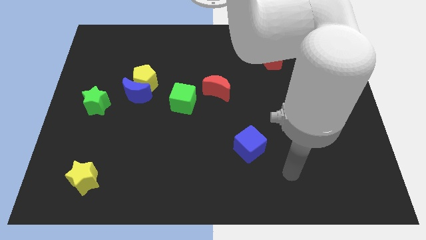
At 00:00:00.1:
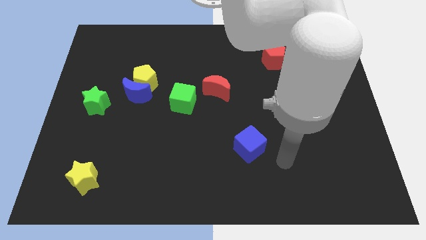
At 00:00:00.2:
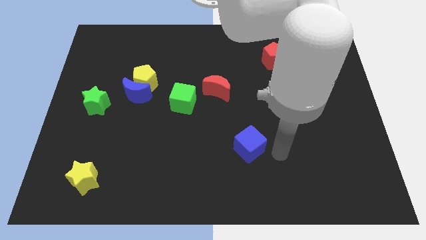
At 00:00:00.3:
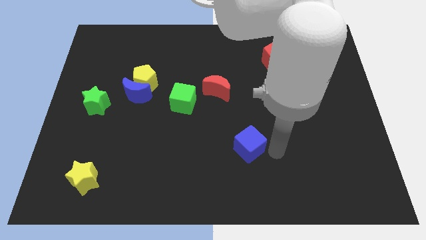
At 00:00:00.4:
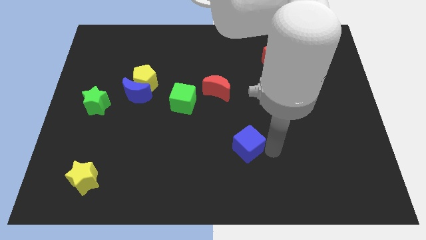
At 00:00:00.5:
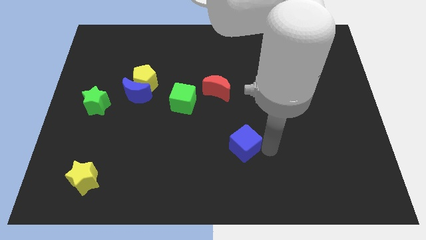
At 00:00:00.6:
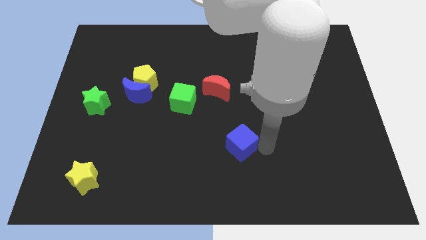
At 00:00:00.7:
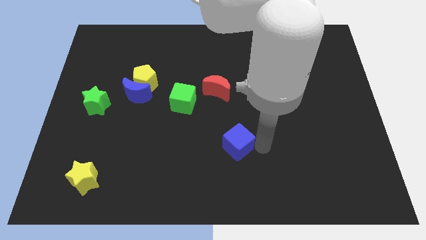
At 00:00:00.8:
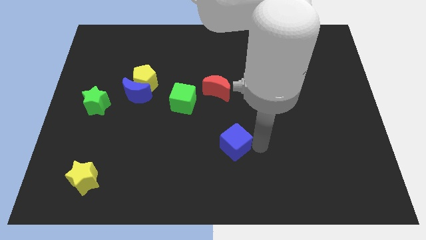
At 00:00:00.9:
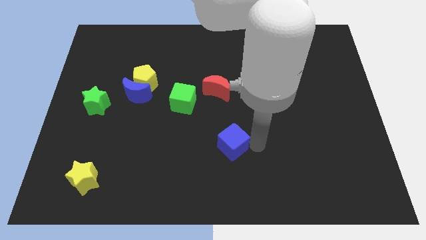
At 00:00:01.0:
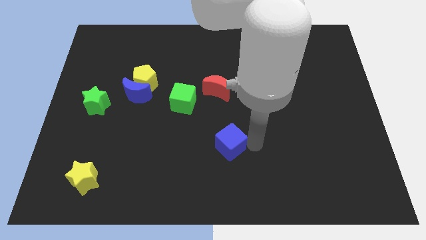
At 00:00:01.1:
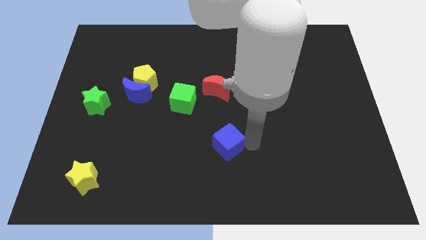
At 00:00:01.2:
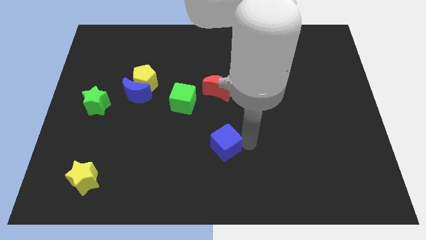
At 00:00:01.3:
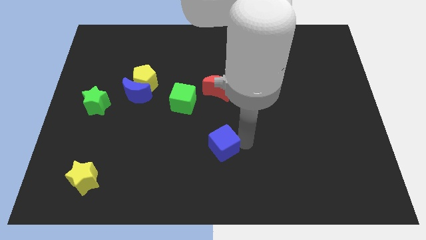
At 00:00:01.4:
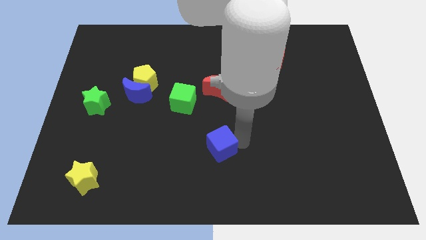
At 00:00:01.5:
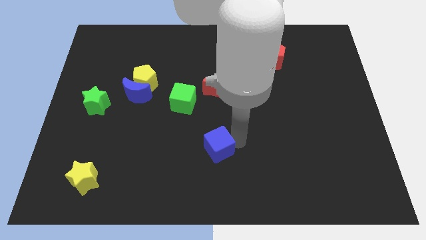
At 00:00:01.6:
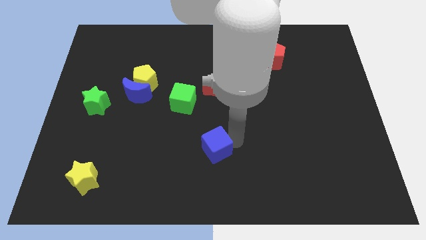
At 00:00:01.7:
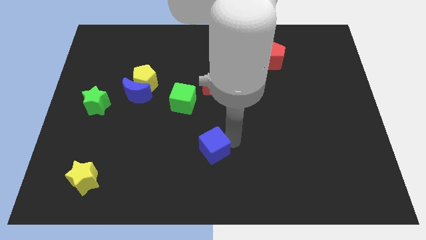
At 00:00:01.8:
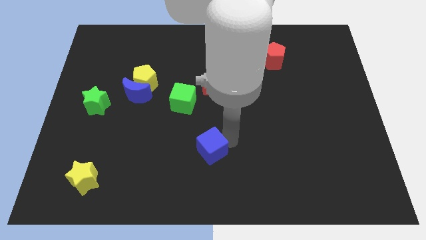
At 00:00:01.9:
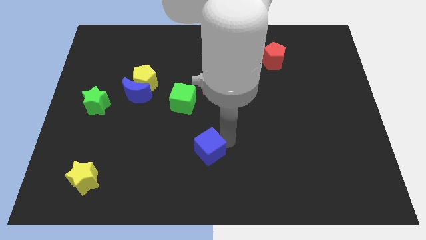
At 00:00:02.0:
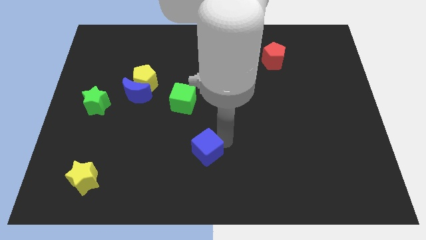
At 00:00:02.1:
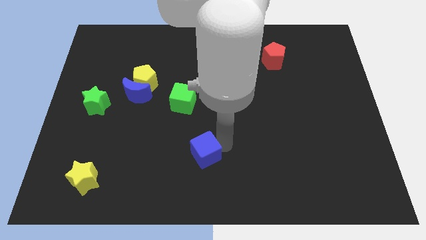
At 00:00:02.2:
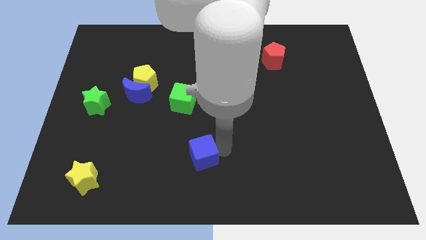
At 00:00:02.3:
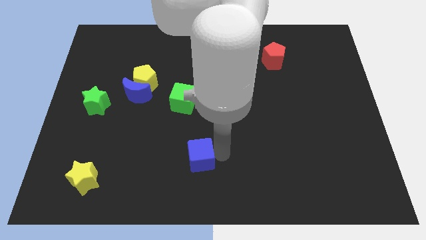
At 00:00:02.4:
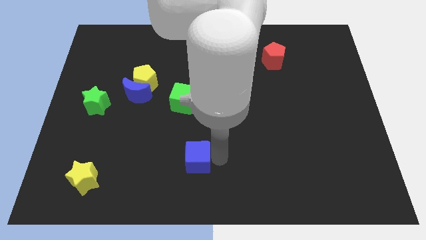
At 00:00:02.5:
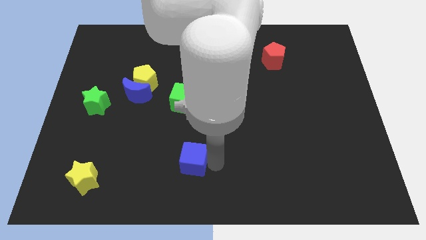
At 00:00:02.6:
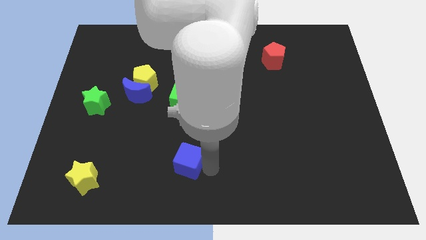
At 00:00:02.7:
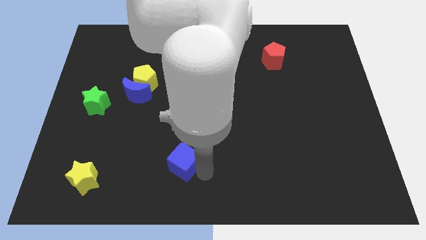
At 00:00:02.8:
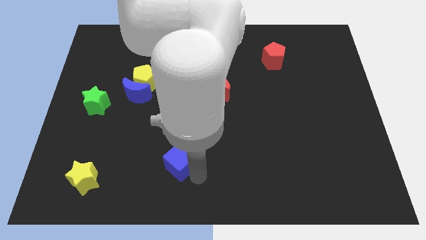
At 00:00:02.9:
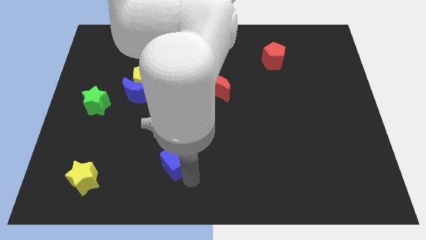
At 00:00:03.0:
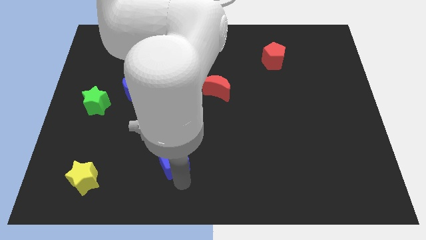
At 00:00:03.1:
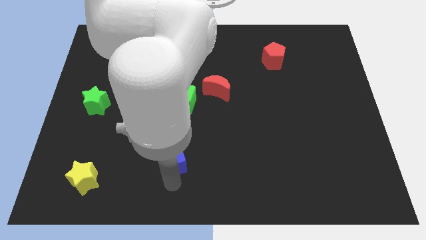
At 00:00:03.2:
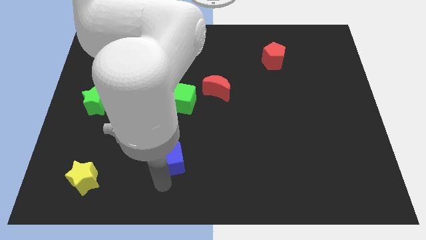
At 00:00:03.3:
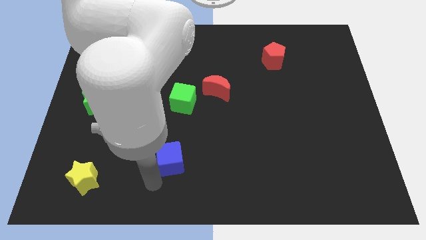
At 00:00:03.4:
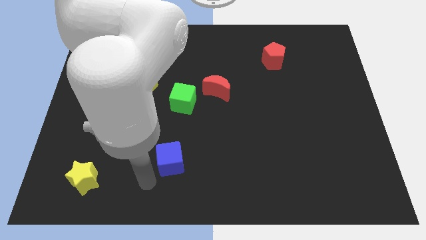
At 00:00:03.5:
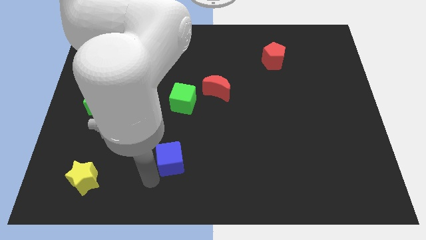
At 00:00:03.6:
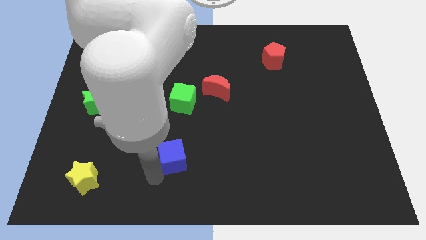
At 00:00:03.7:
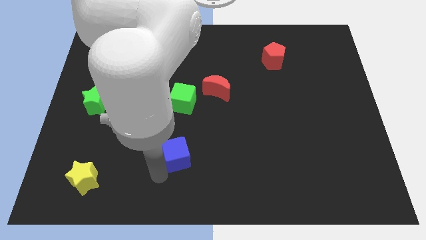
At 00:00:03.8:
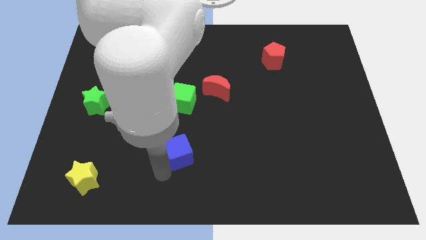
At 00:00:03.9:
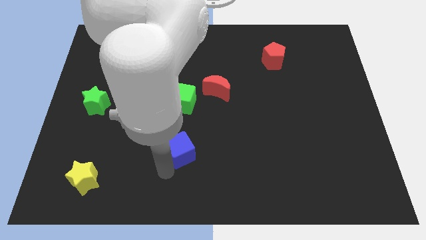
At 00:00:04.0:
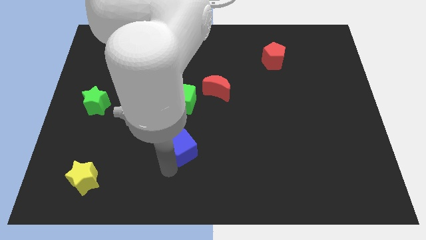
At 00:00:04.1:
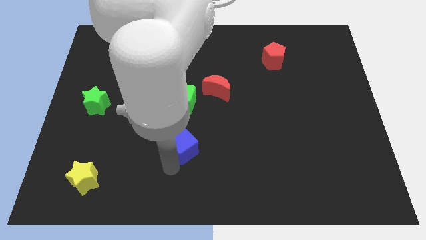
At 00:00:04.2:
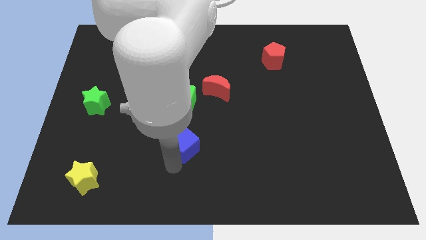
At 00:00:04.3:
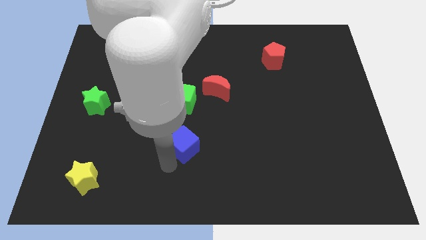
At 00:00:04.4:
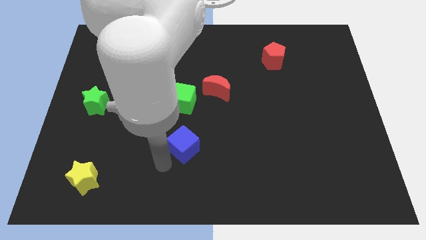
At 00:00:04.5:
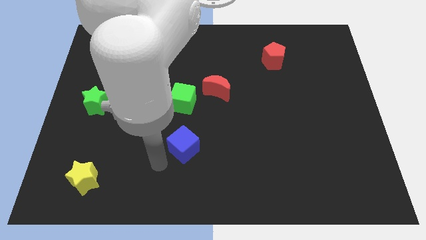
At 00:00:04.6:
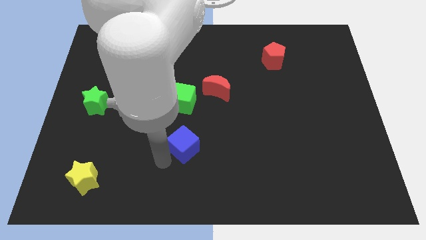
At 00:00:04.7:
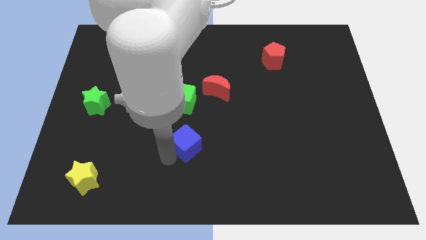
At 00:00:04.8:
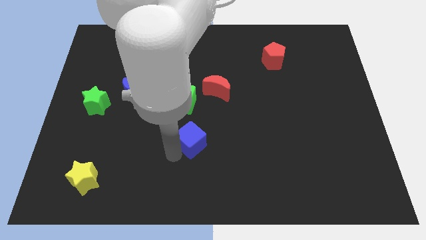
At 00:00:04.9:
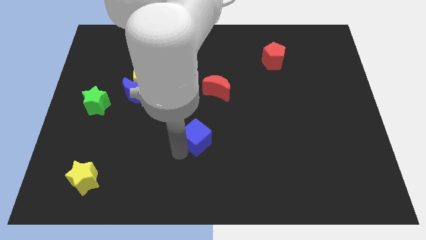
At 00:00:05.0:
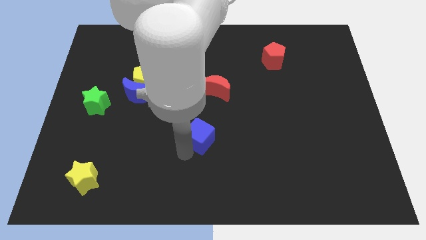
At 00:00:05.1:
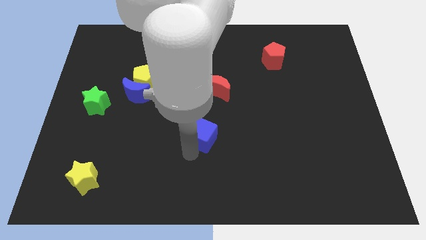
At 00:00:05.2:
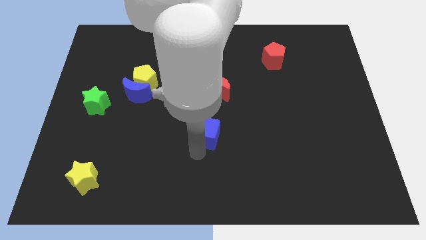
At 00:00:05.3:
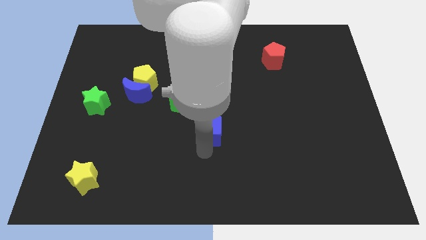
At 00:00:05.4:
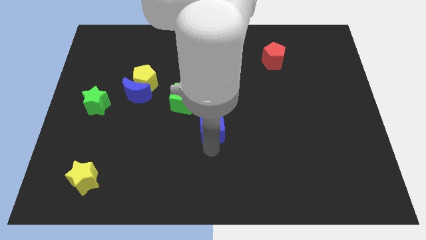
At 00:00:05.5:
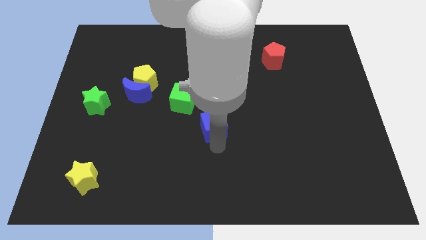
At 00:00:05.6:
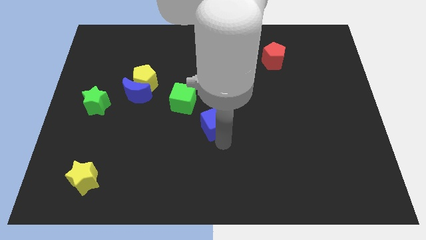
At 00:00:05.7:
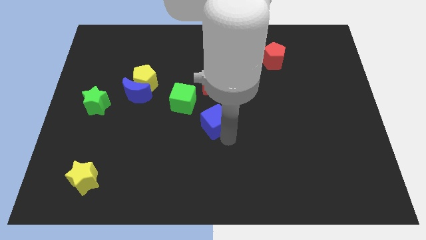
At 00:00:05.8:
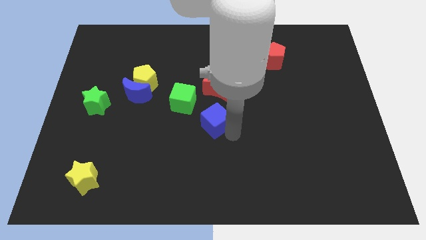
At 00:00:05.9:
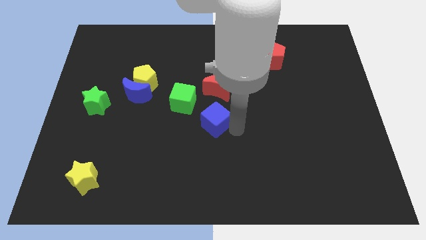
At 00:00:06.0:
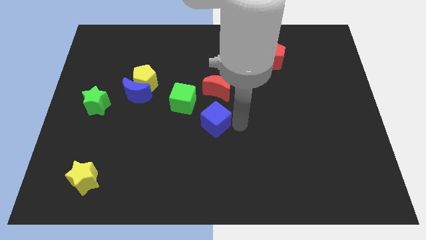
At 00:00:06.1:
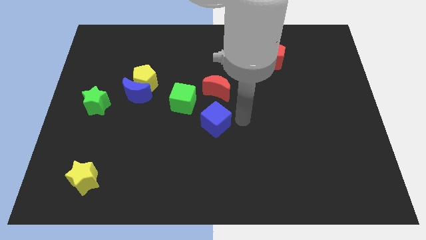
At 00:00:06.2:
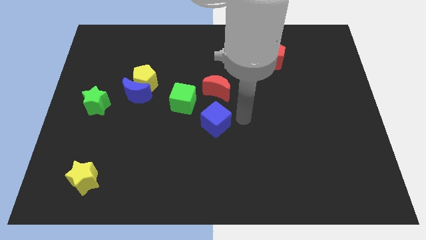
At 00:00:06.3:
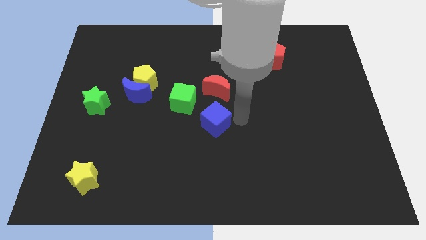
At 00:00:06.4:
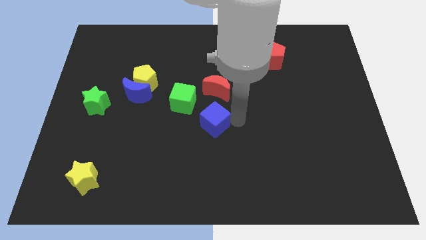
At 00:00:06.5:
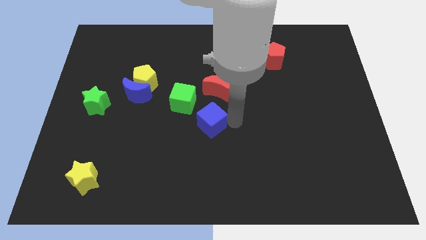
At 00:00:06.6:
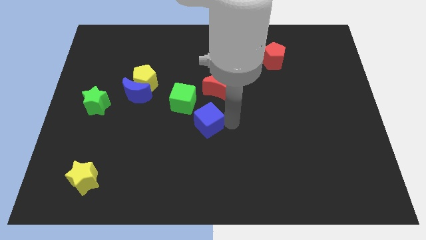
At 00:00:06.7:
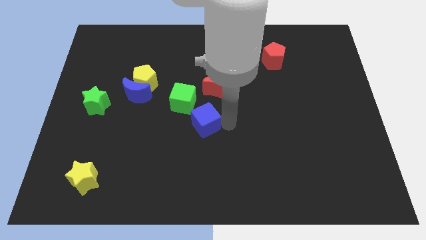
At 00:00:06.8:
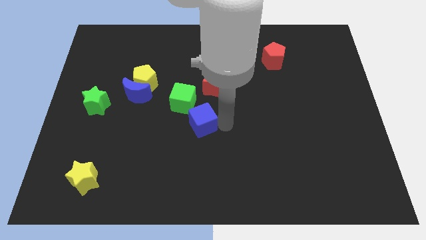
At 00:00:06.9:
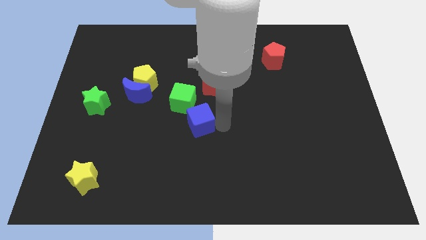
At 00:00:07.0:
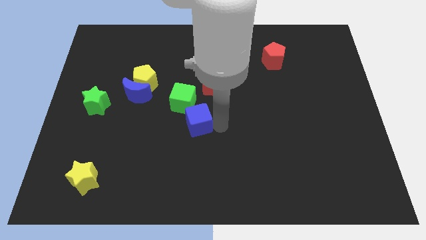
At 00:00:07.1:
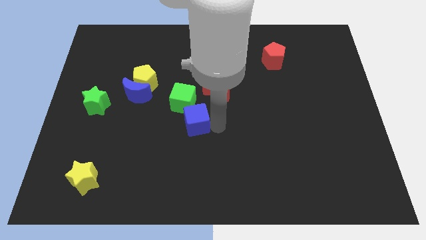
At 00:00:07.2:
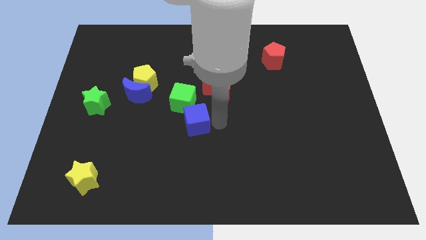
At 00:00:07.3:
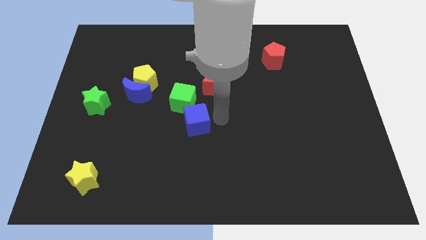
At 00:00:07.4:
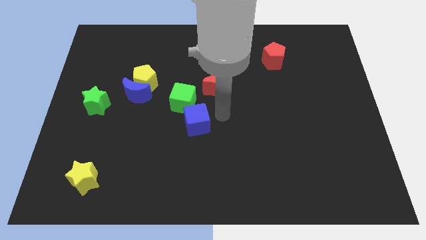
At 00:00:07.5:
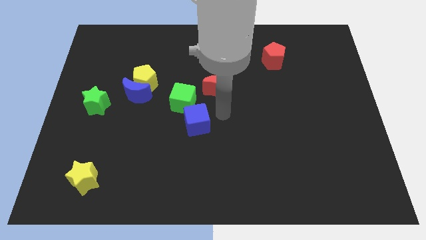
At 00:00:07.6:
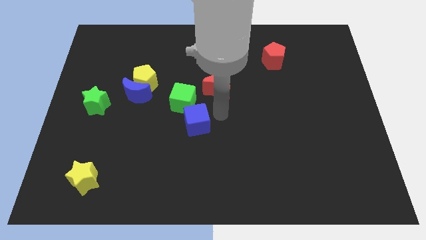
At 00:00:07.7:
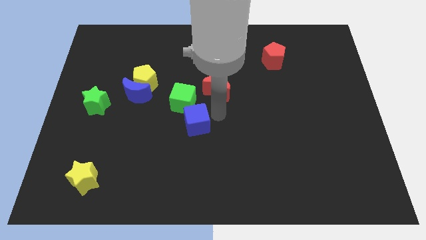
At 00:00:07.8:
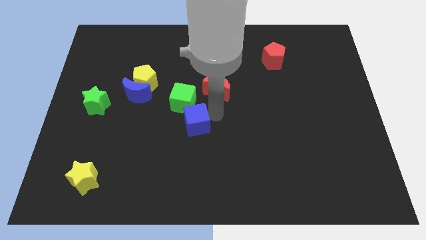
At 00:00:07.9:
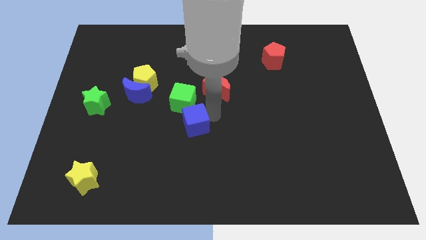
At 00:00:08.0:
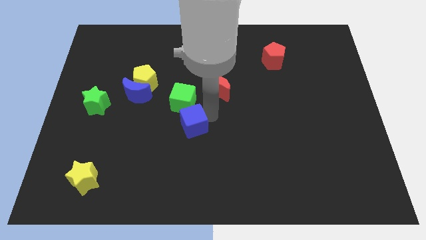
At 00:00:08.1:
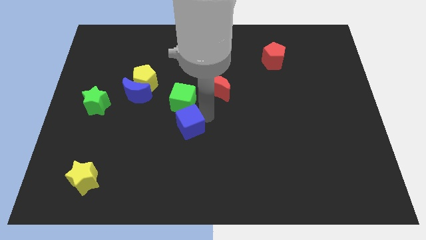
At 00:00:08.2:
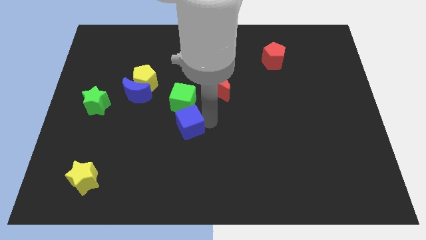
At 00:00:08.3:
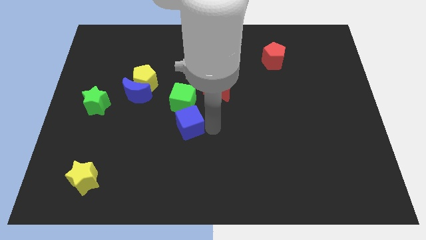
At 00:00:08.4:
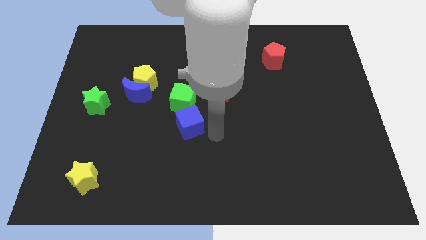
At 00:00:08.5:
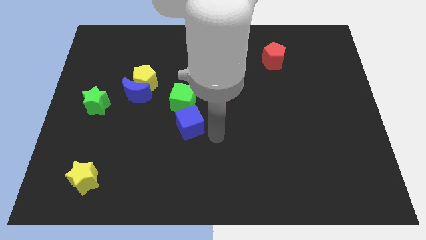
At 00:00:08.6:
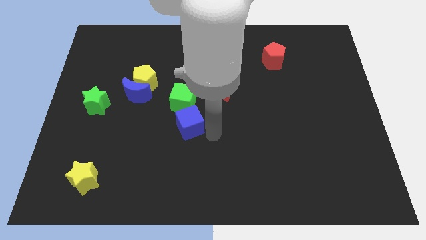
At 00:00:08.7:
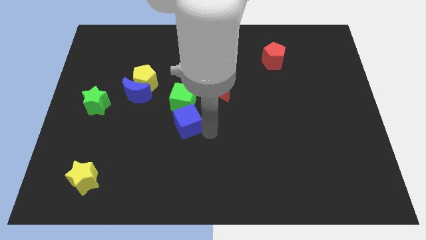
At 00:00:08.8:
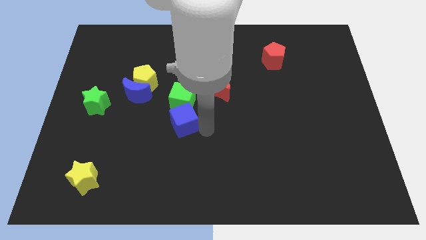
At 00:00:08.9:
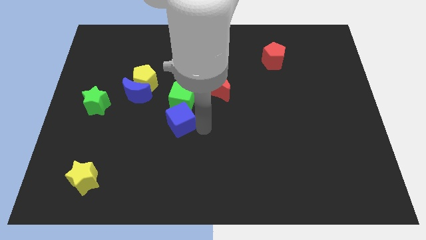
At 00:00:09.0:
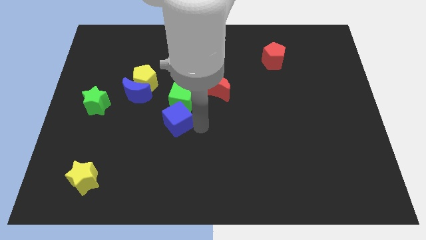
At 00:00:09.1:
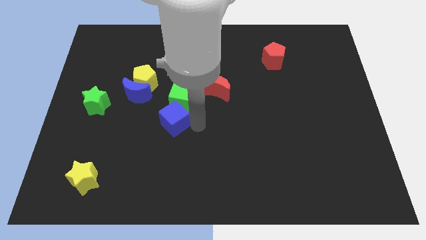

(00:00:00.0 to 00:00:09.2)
move the blue cube to the bottom right side of the blue moon
